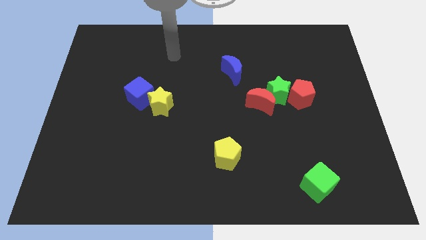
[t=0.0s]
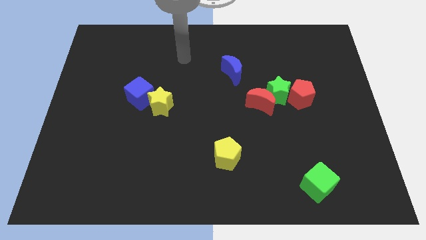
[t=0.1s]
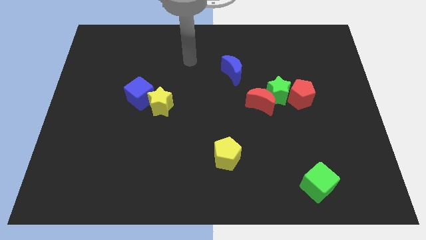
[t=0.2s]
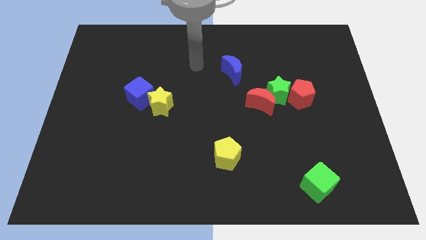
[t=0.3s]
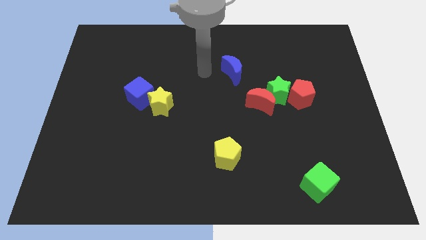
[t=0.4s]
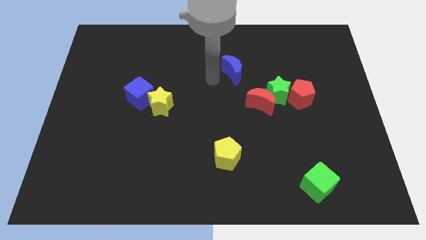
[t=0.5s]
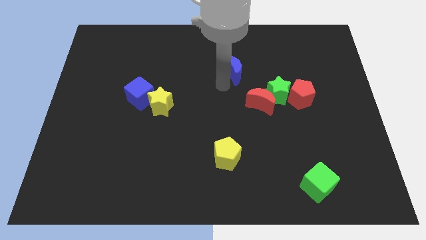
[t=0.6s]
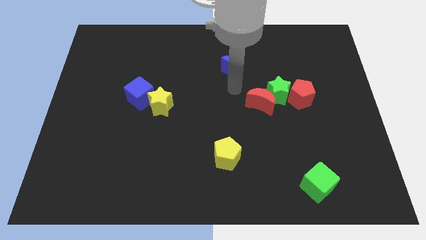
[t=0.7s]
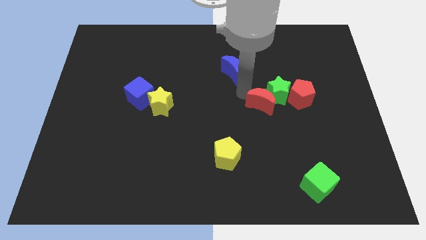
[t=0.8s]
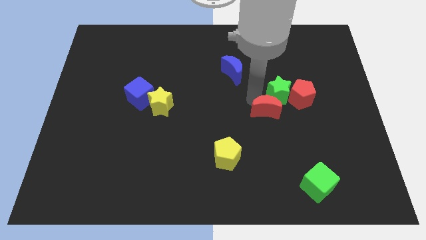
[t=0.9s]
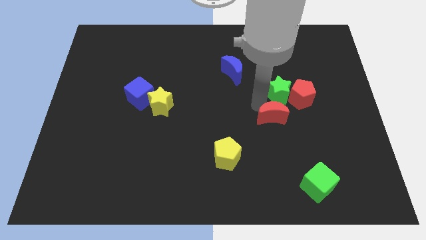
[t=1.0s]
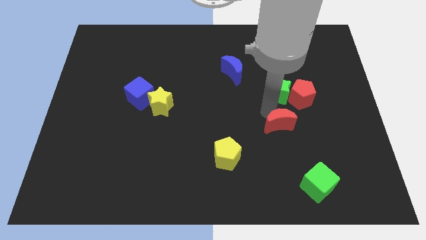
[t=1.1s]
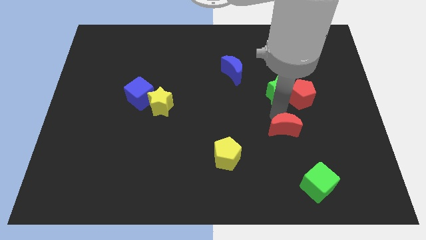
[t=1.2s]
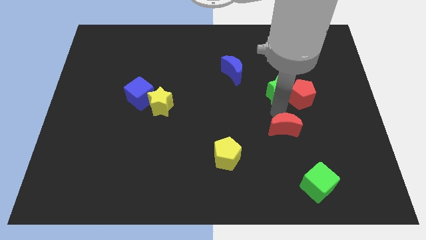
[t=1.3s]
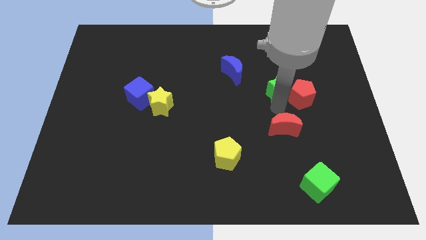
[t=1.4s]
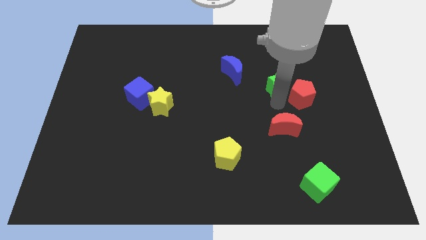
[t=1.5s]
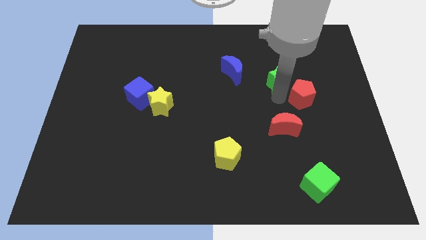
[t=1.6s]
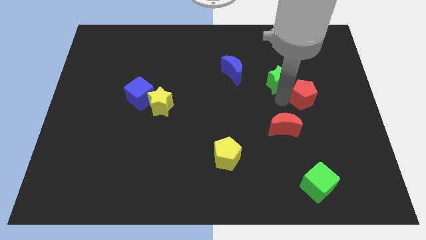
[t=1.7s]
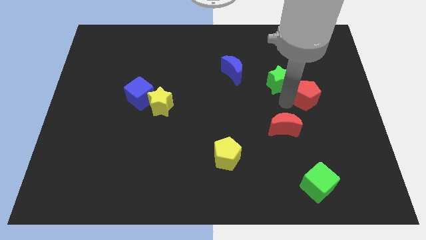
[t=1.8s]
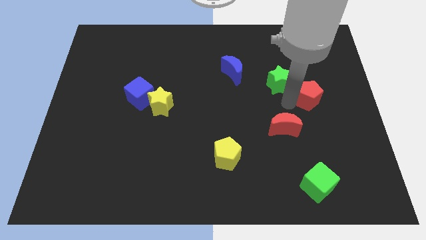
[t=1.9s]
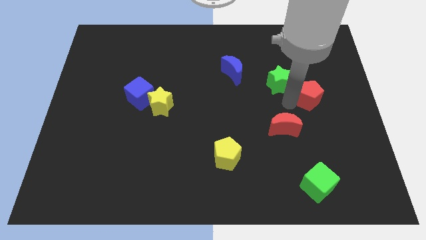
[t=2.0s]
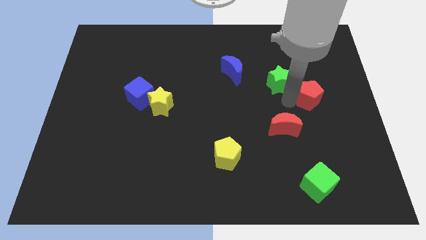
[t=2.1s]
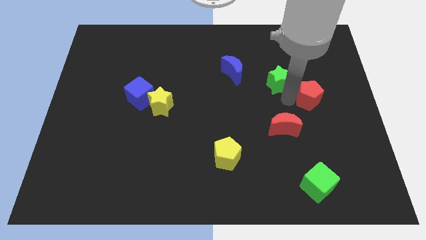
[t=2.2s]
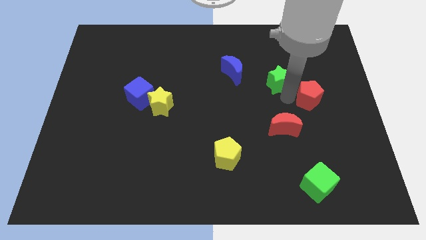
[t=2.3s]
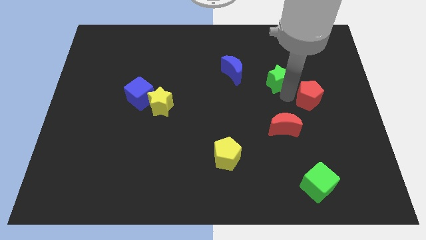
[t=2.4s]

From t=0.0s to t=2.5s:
pull the green star apart from the red moon and red pentagon

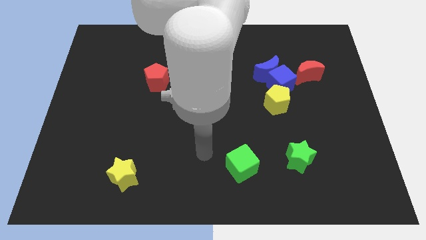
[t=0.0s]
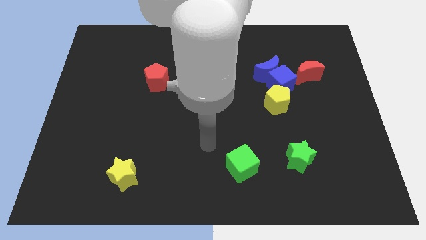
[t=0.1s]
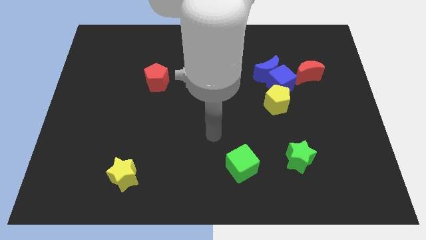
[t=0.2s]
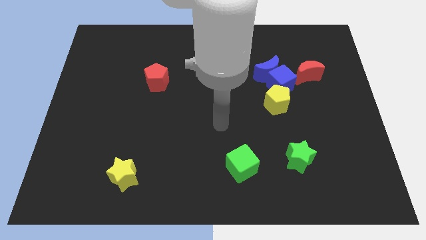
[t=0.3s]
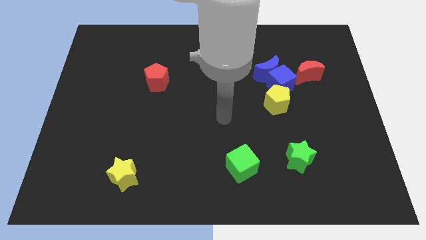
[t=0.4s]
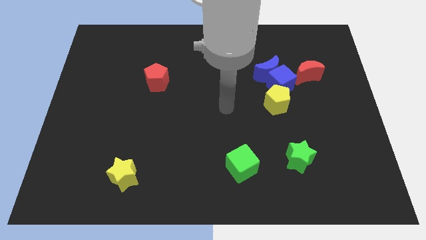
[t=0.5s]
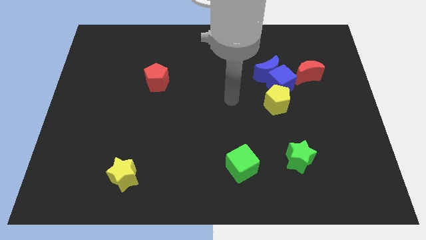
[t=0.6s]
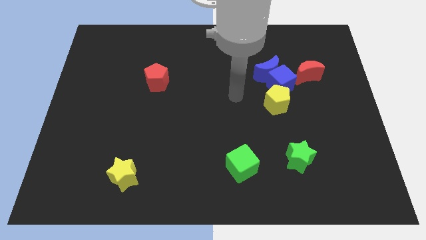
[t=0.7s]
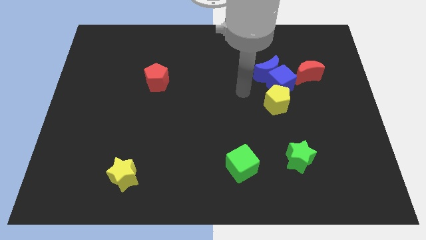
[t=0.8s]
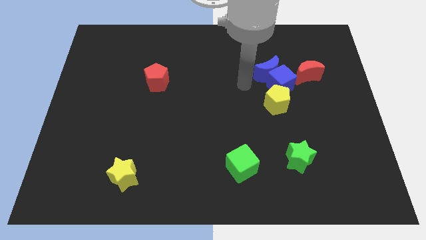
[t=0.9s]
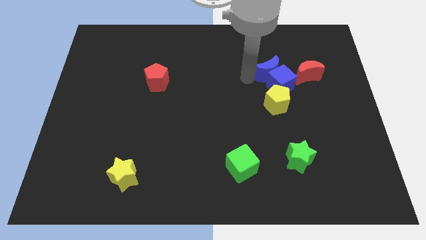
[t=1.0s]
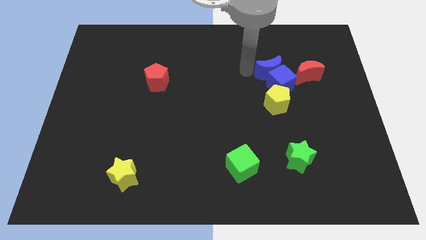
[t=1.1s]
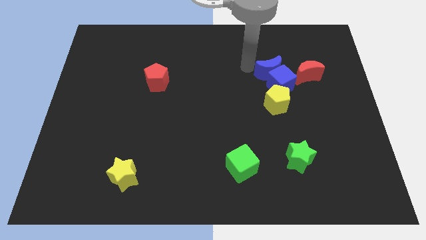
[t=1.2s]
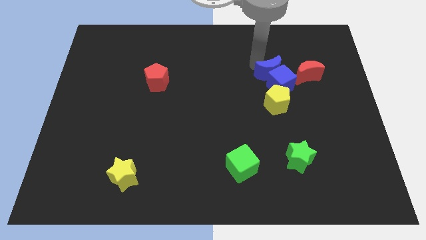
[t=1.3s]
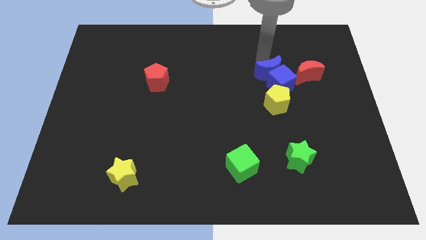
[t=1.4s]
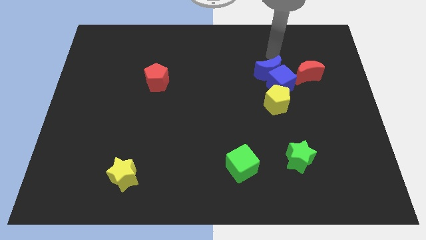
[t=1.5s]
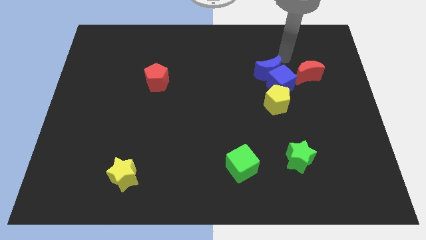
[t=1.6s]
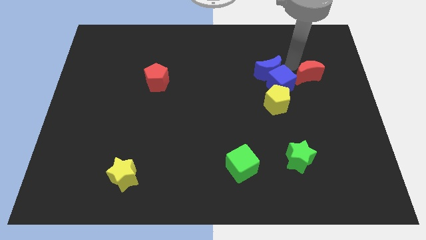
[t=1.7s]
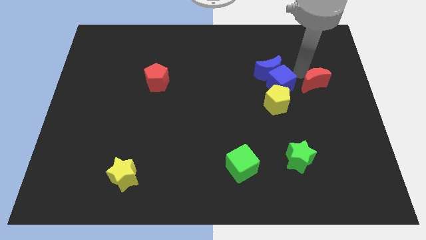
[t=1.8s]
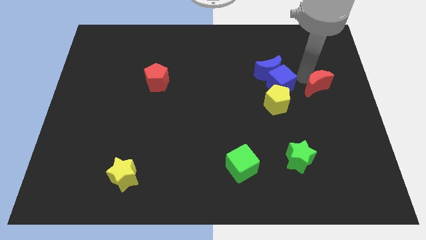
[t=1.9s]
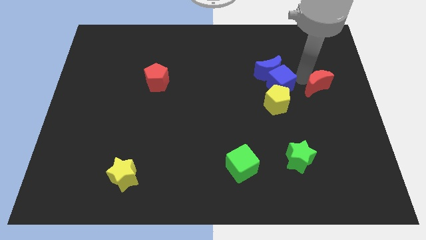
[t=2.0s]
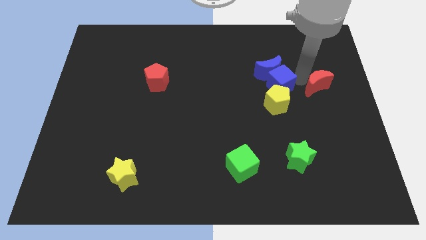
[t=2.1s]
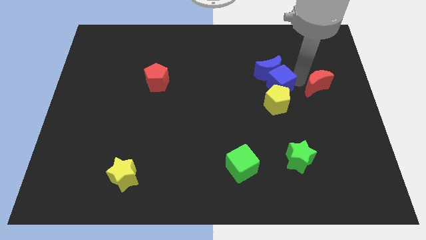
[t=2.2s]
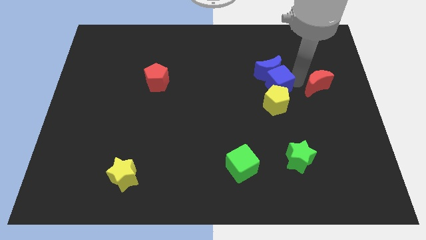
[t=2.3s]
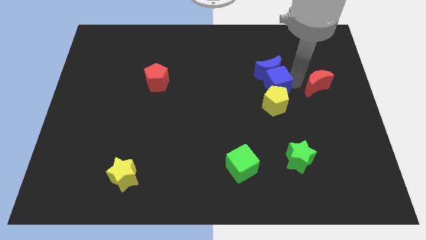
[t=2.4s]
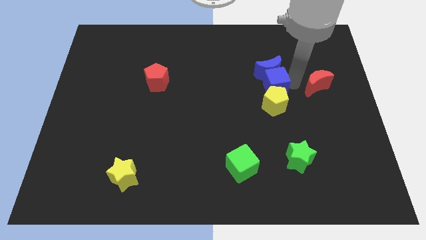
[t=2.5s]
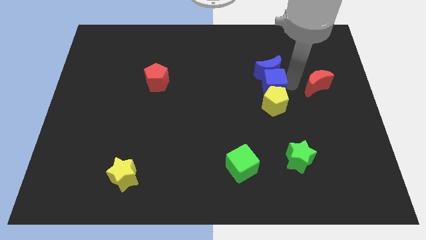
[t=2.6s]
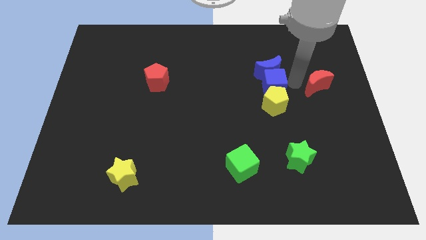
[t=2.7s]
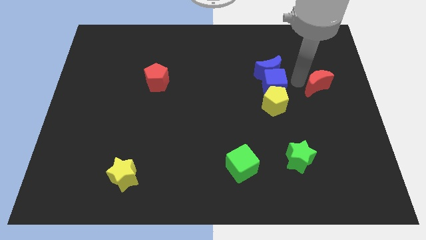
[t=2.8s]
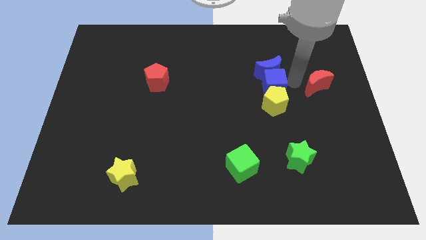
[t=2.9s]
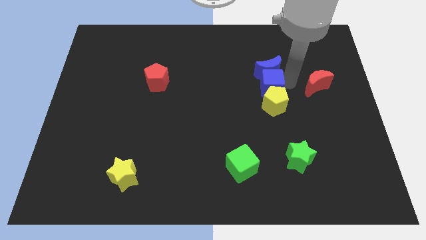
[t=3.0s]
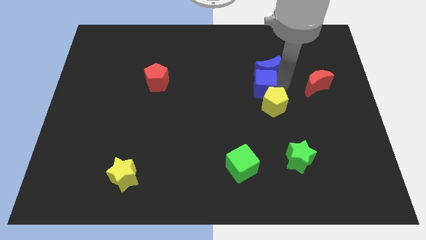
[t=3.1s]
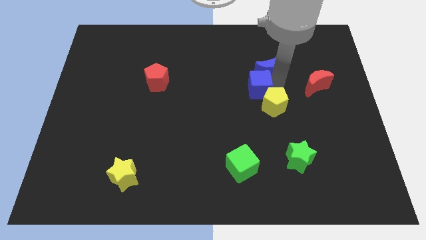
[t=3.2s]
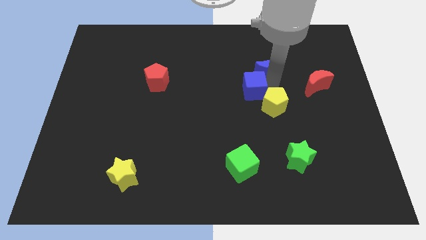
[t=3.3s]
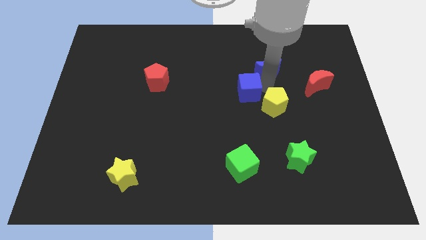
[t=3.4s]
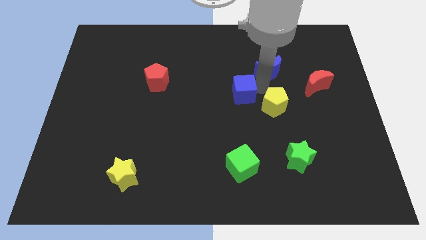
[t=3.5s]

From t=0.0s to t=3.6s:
separate the blue cube from the blue moon, yellow pentagon, and red moon

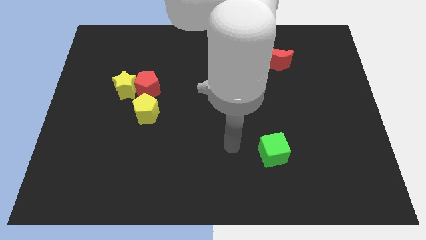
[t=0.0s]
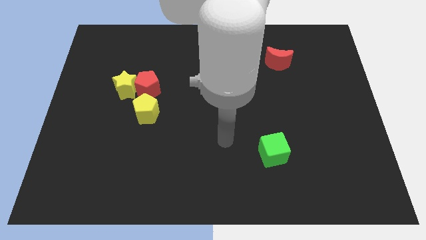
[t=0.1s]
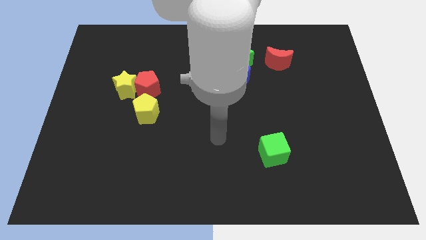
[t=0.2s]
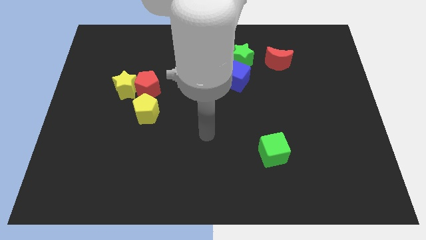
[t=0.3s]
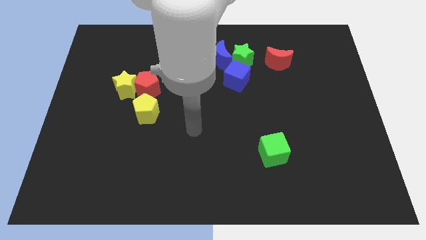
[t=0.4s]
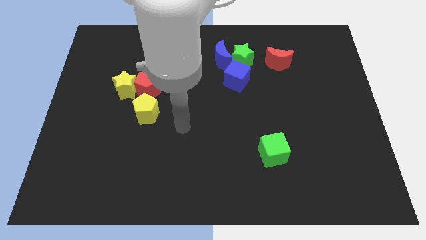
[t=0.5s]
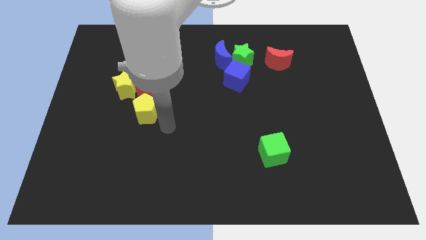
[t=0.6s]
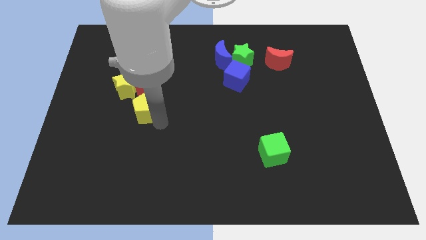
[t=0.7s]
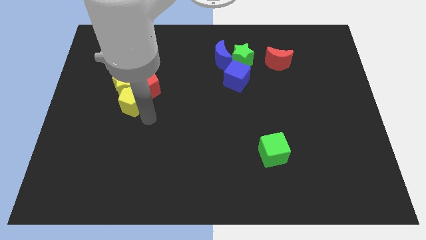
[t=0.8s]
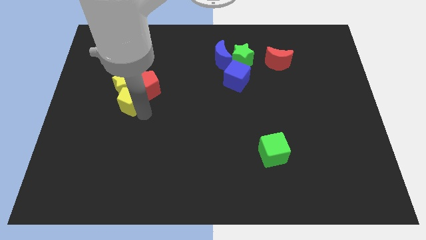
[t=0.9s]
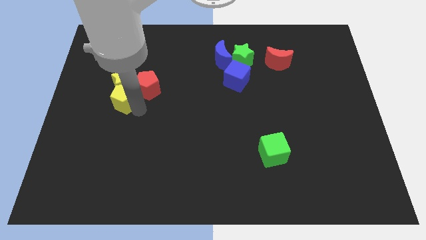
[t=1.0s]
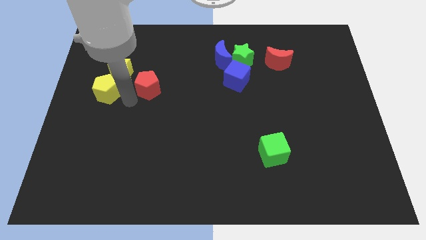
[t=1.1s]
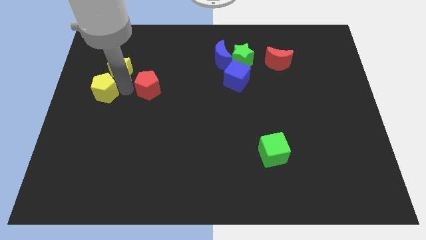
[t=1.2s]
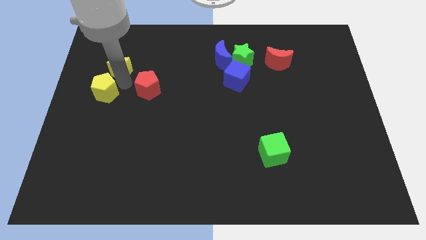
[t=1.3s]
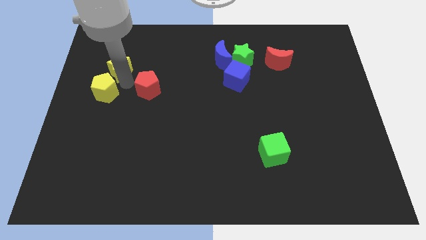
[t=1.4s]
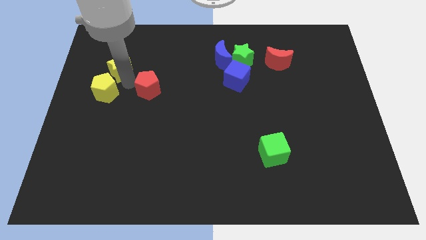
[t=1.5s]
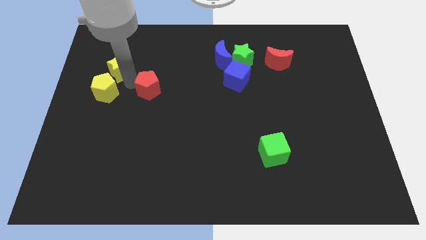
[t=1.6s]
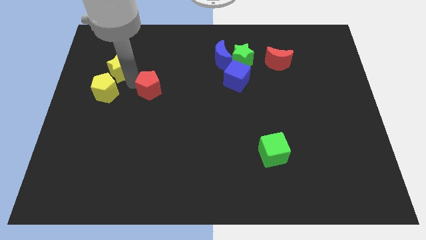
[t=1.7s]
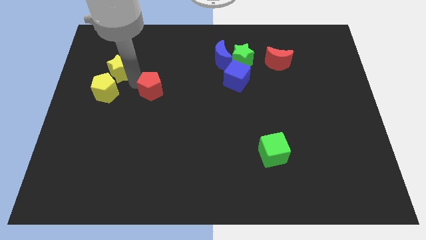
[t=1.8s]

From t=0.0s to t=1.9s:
separate the red pentagon from the yellow star and yellow pentagon

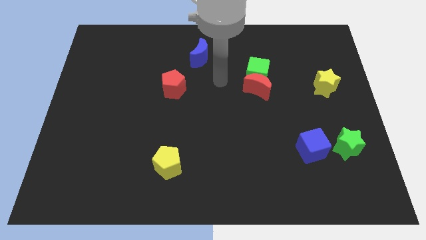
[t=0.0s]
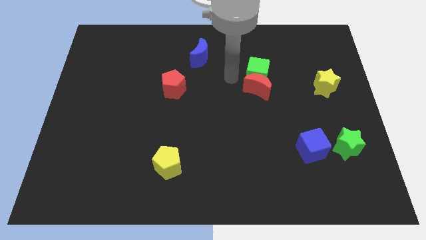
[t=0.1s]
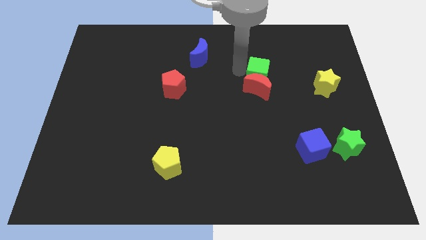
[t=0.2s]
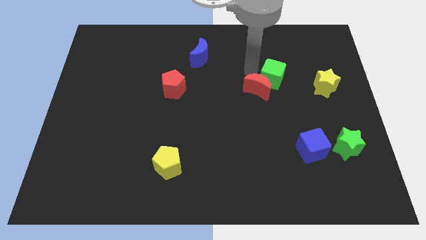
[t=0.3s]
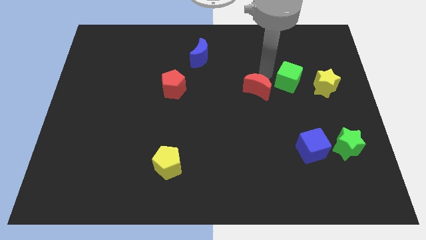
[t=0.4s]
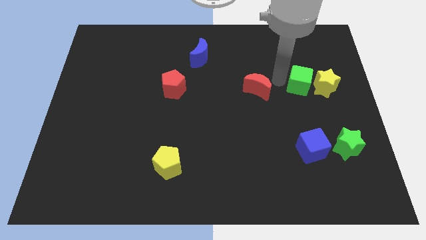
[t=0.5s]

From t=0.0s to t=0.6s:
move the red moon away from the green cube

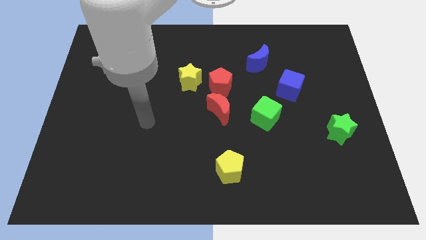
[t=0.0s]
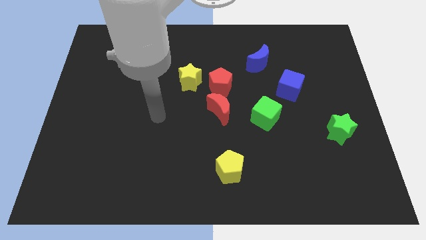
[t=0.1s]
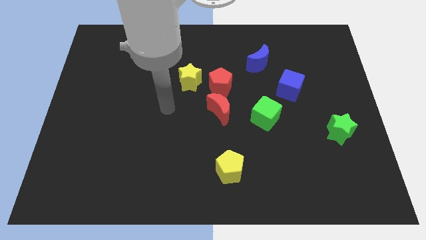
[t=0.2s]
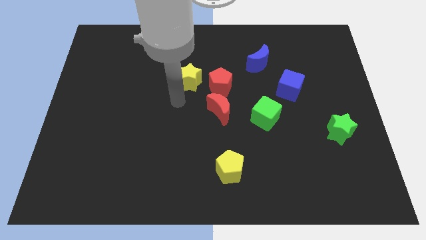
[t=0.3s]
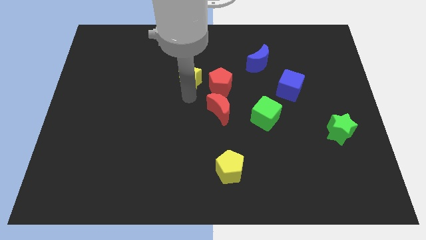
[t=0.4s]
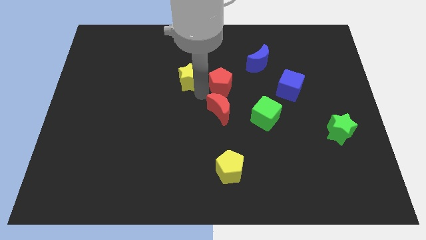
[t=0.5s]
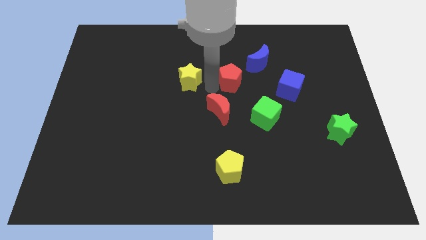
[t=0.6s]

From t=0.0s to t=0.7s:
pull the yellow star apart from the red pentagon
